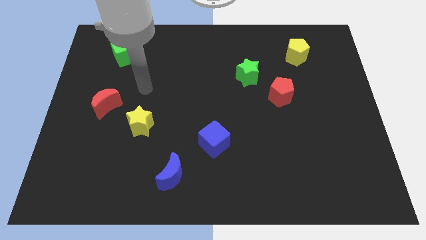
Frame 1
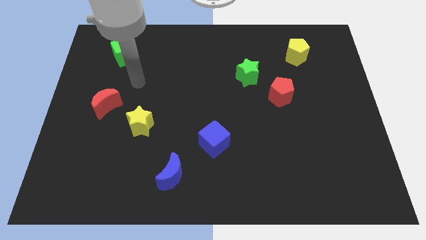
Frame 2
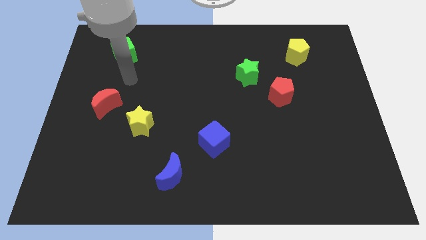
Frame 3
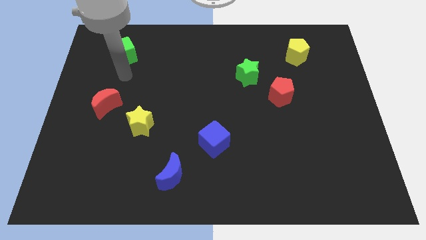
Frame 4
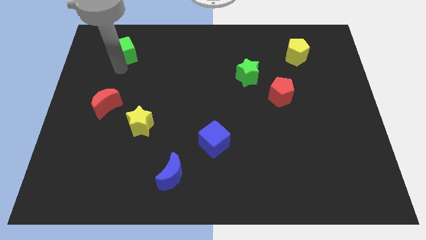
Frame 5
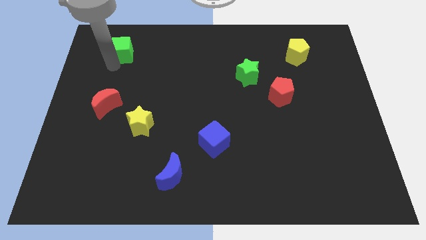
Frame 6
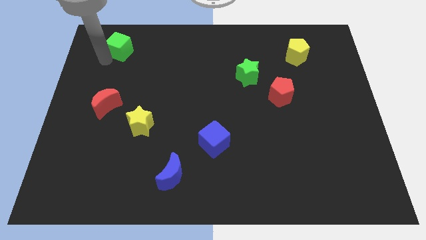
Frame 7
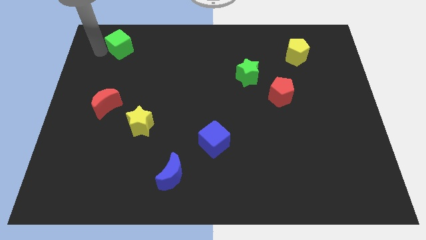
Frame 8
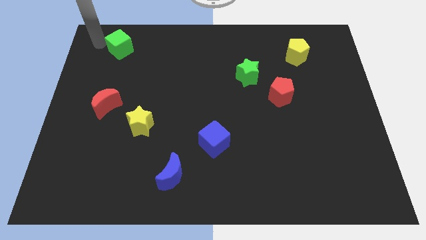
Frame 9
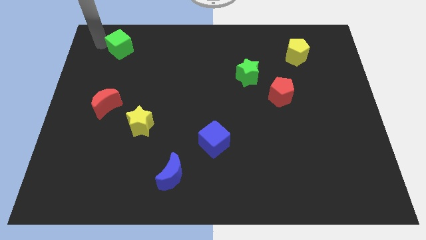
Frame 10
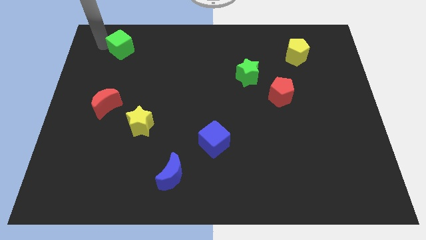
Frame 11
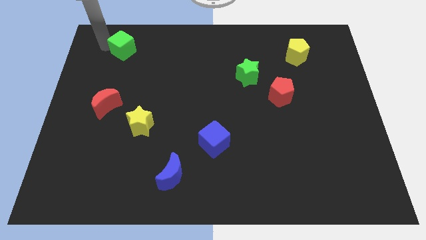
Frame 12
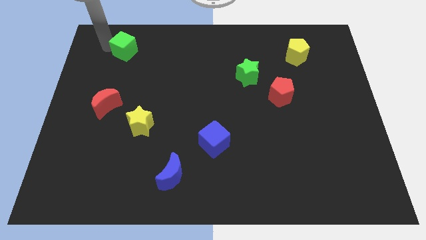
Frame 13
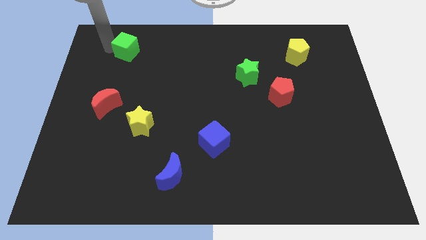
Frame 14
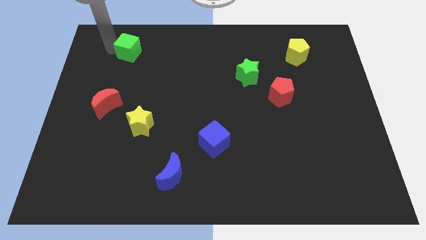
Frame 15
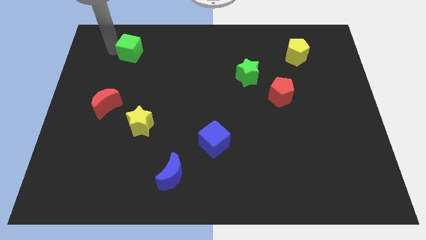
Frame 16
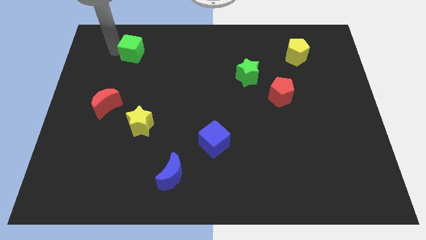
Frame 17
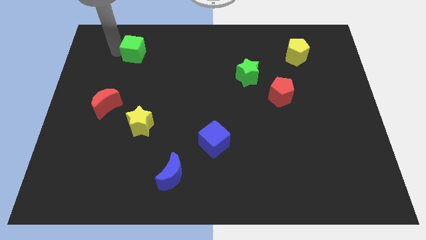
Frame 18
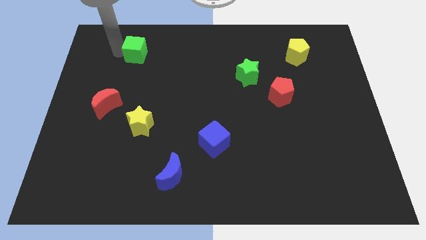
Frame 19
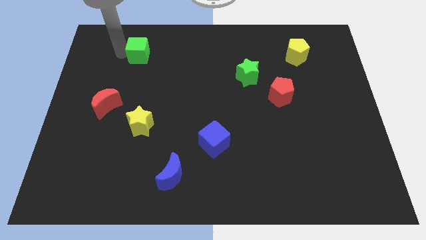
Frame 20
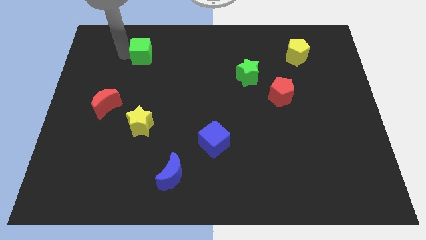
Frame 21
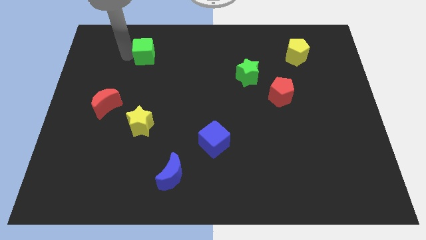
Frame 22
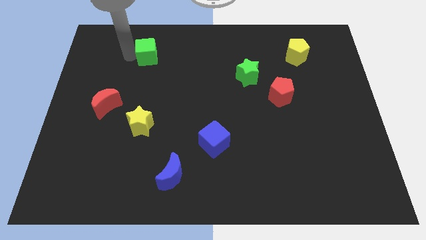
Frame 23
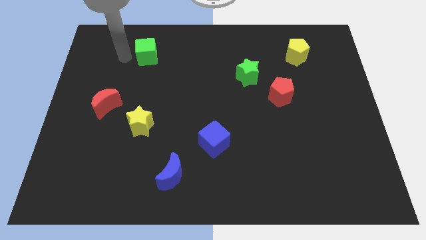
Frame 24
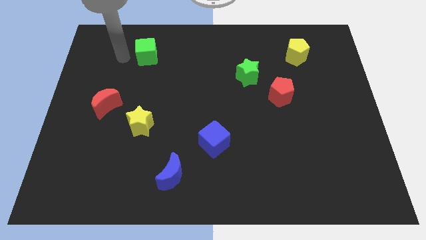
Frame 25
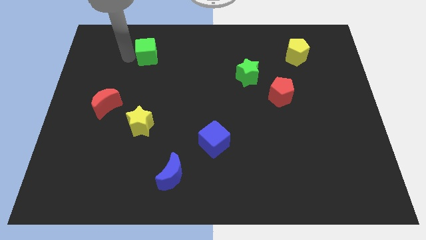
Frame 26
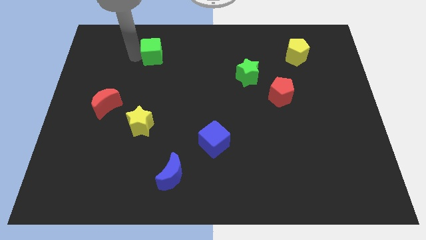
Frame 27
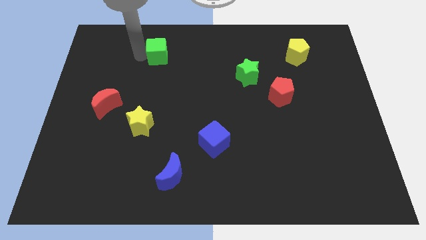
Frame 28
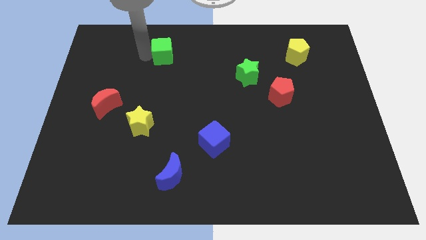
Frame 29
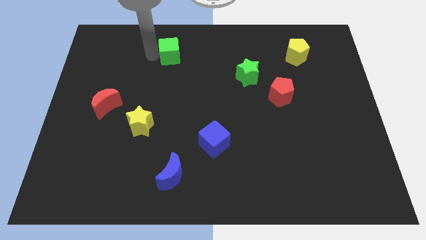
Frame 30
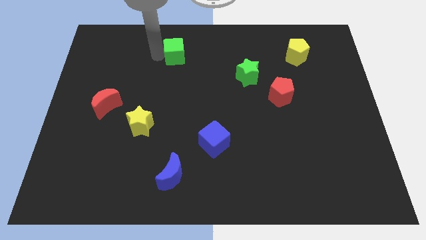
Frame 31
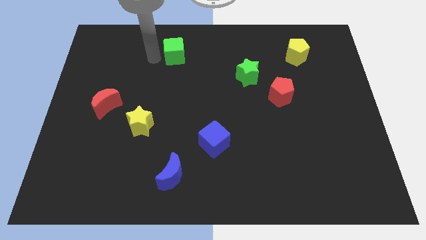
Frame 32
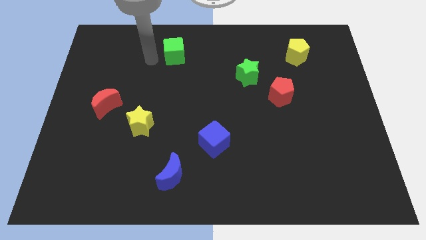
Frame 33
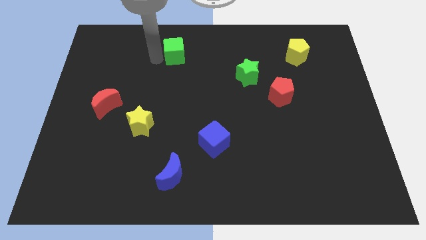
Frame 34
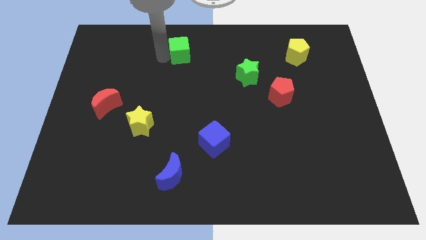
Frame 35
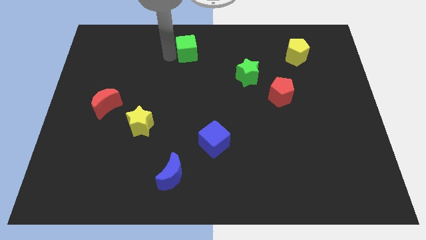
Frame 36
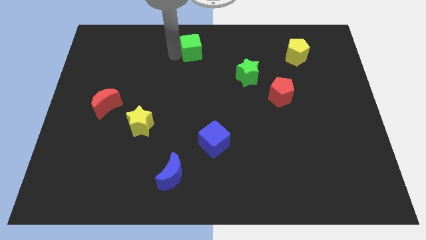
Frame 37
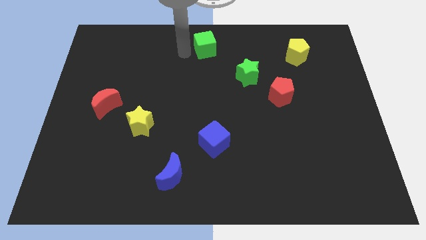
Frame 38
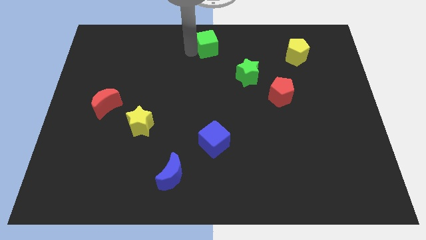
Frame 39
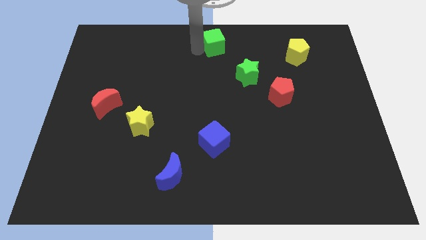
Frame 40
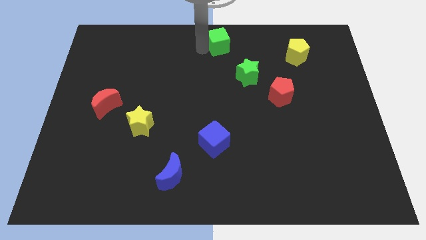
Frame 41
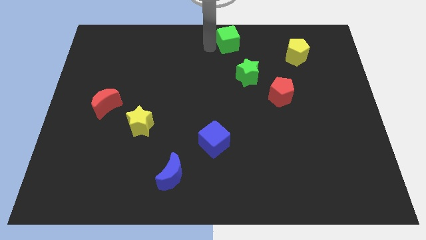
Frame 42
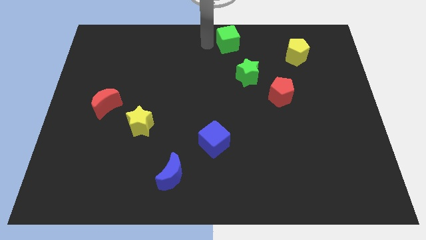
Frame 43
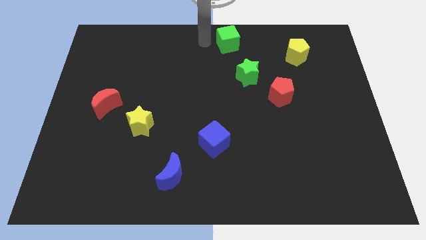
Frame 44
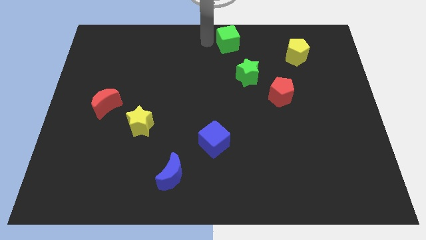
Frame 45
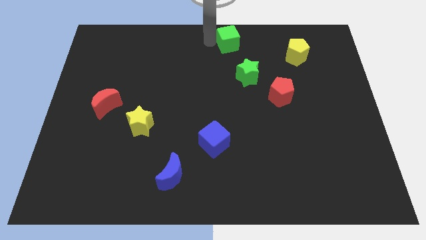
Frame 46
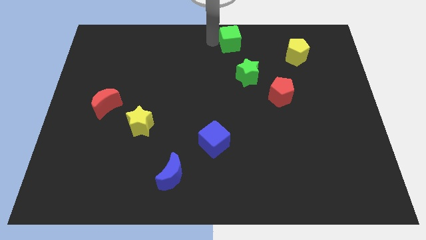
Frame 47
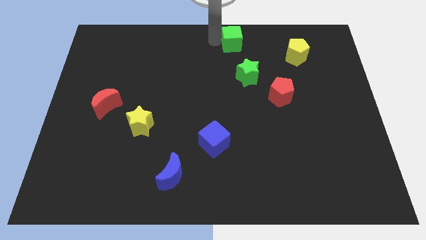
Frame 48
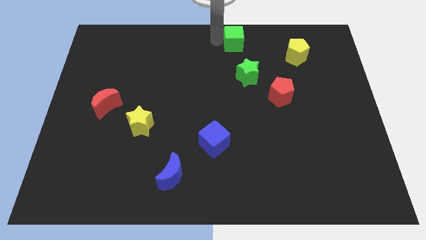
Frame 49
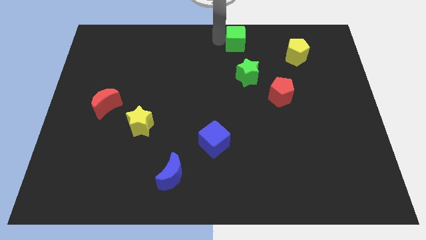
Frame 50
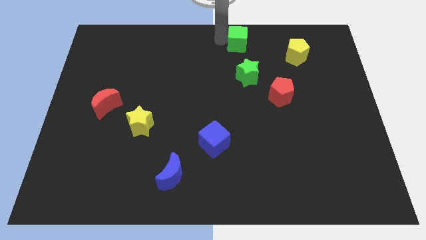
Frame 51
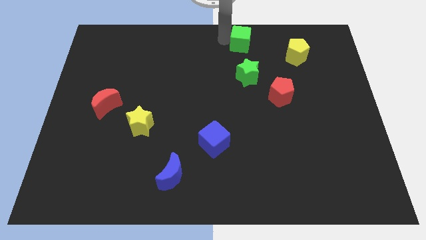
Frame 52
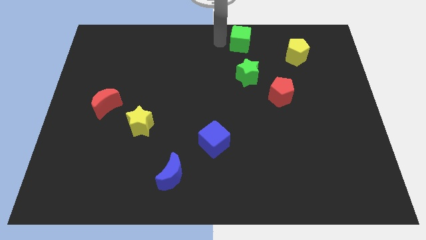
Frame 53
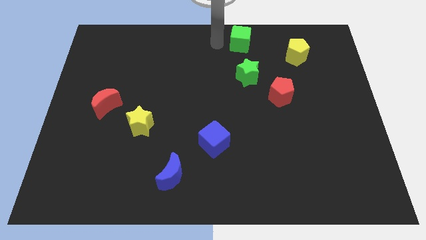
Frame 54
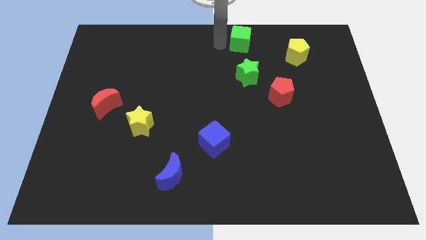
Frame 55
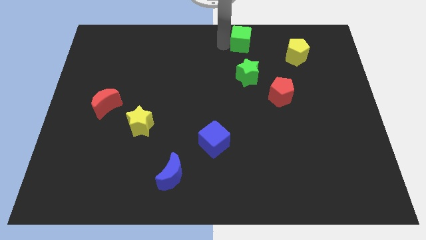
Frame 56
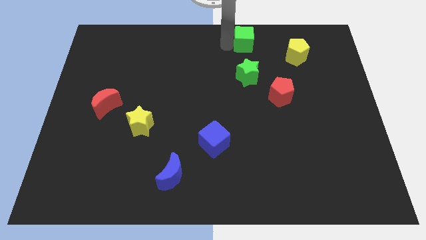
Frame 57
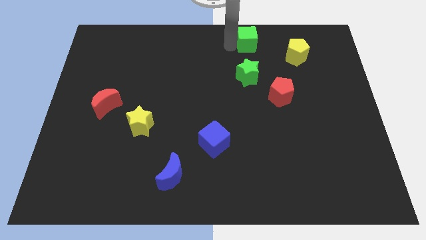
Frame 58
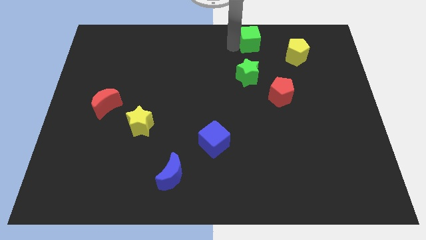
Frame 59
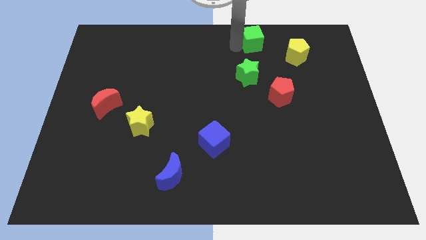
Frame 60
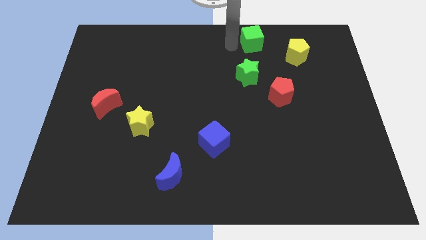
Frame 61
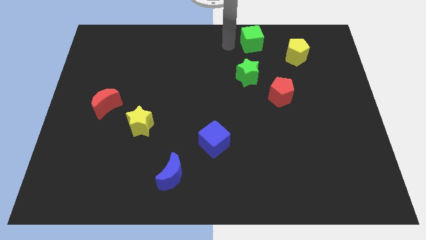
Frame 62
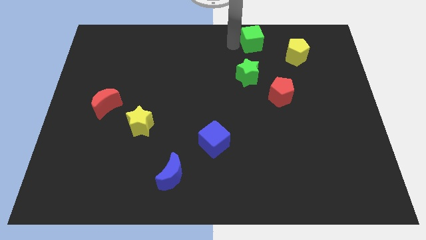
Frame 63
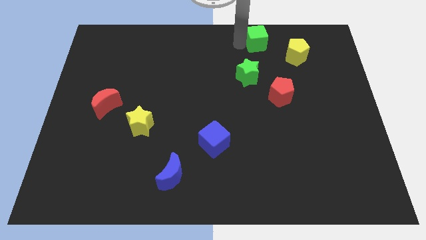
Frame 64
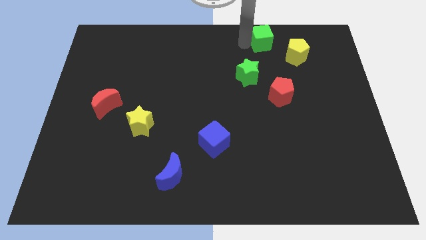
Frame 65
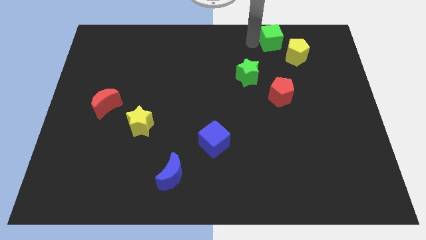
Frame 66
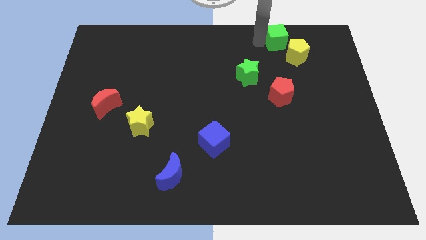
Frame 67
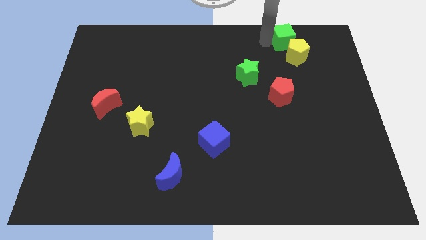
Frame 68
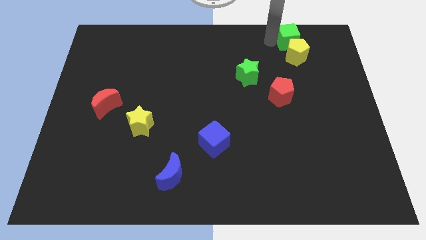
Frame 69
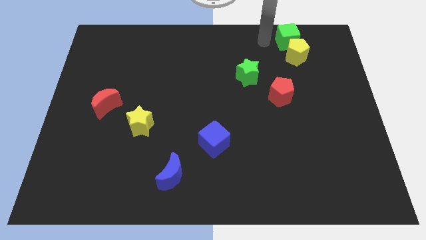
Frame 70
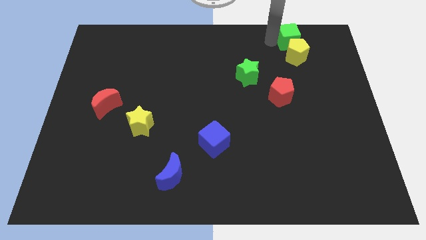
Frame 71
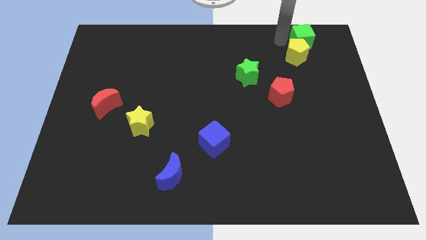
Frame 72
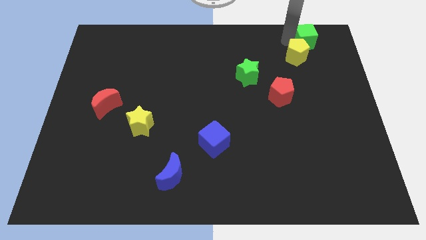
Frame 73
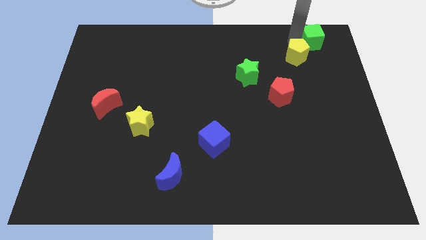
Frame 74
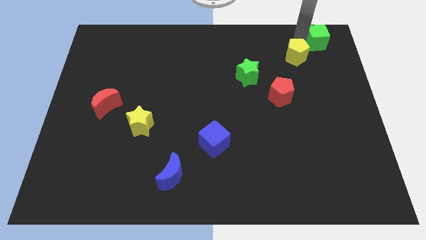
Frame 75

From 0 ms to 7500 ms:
slide the green cube to the top right of the board
